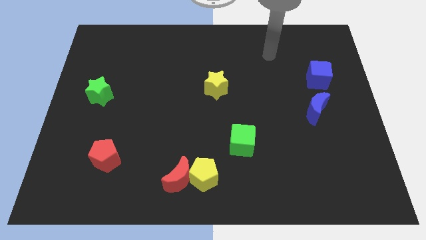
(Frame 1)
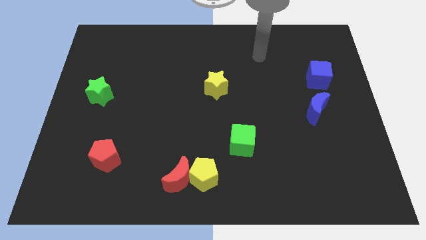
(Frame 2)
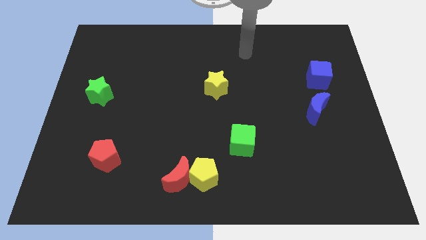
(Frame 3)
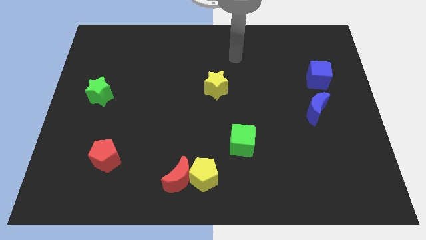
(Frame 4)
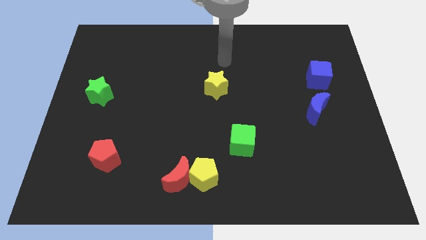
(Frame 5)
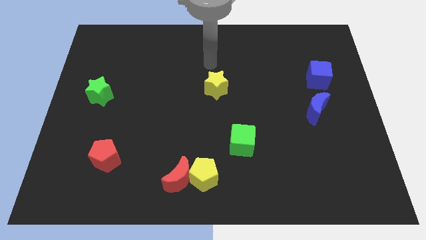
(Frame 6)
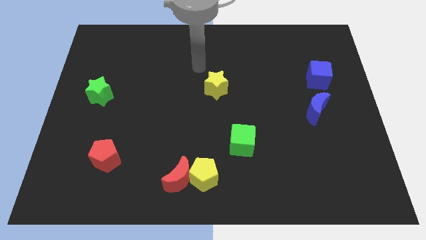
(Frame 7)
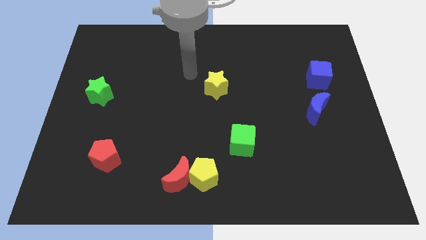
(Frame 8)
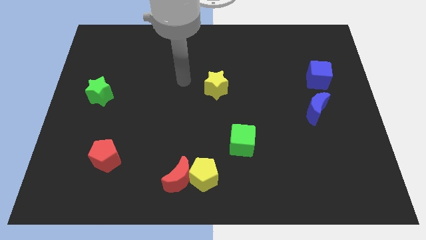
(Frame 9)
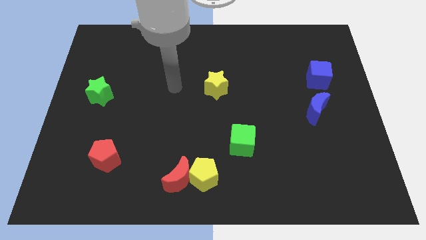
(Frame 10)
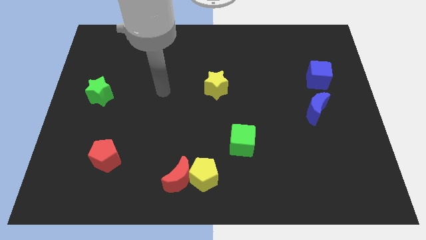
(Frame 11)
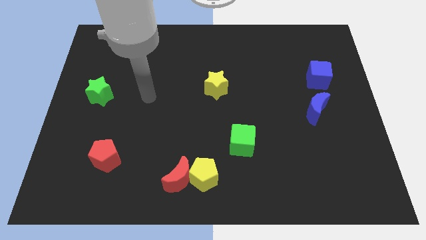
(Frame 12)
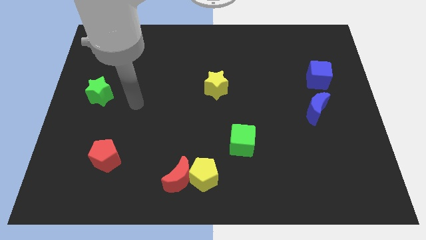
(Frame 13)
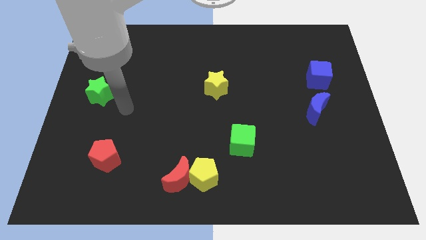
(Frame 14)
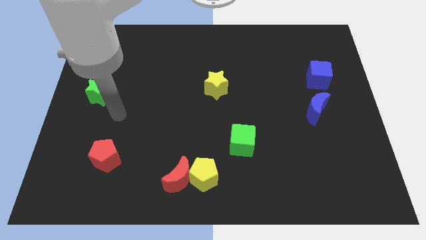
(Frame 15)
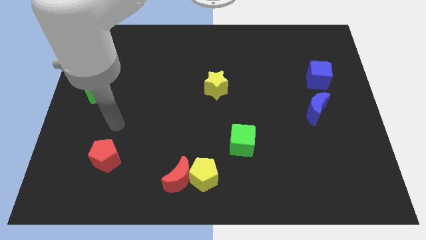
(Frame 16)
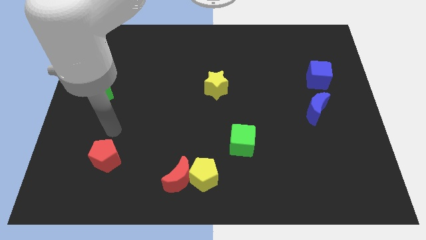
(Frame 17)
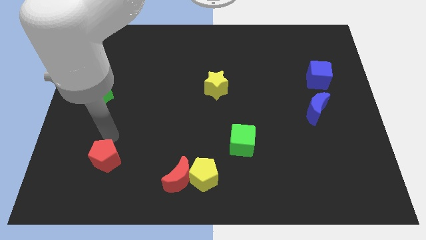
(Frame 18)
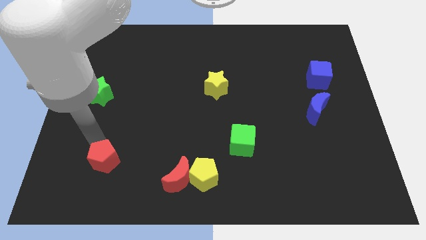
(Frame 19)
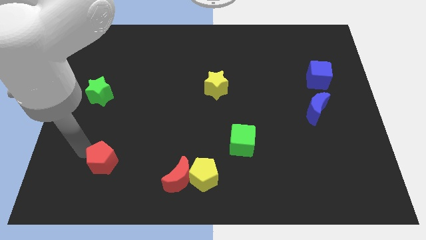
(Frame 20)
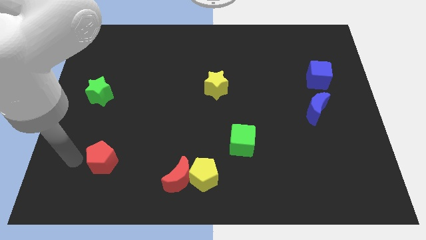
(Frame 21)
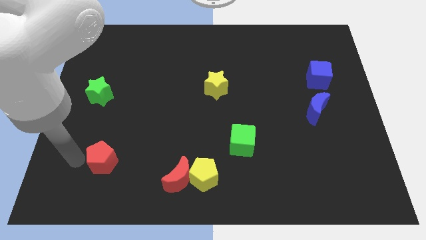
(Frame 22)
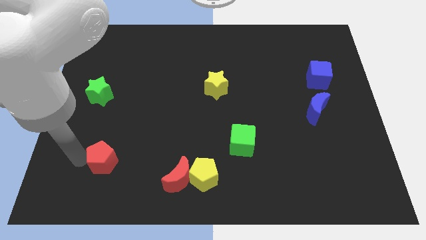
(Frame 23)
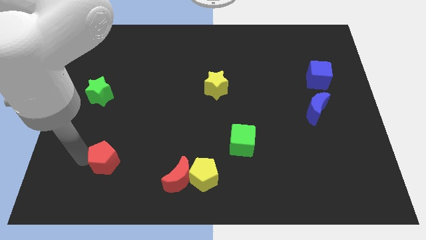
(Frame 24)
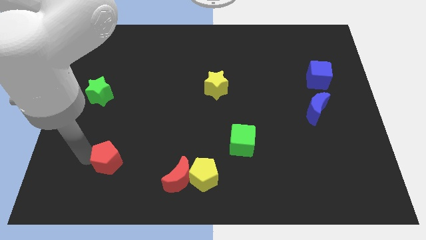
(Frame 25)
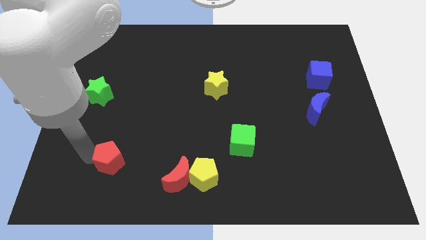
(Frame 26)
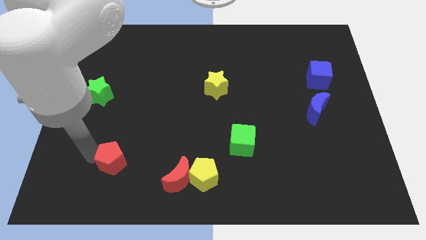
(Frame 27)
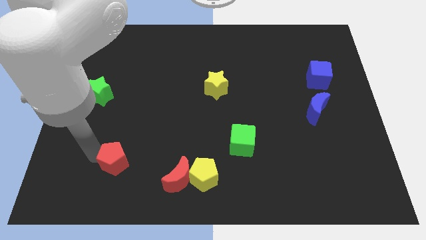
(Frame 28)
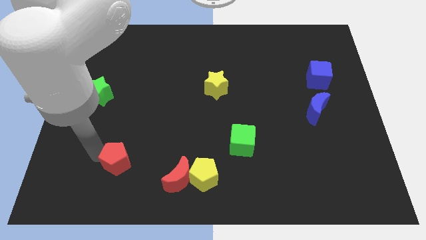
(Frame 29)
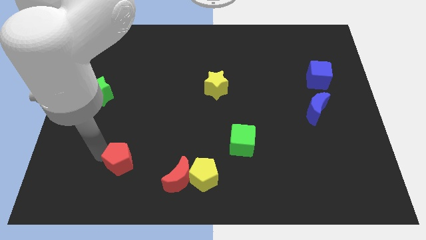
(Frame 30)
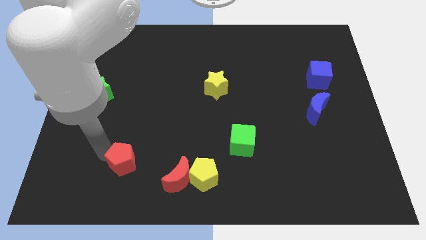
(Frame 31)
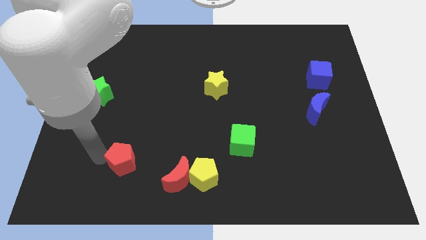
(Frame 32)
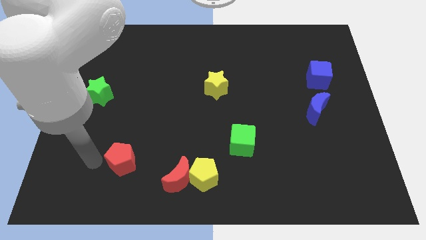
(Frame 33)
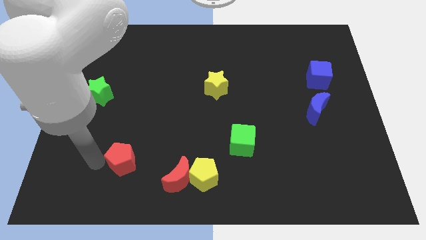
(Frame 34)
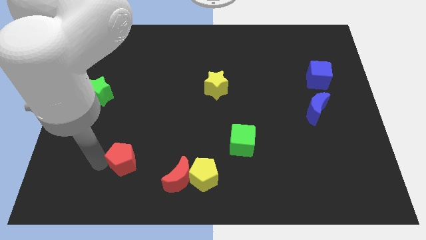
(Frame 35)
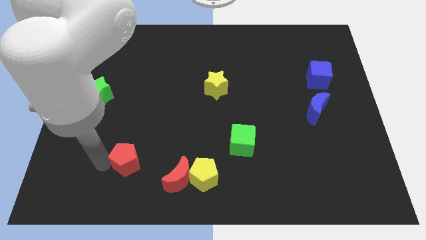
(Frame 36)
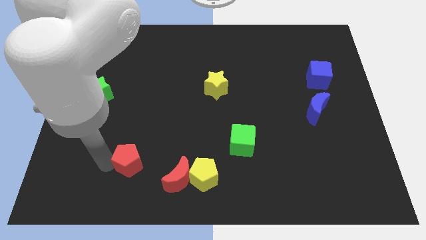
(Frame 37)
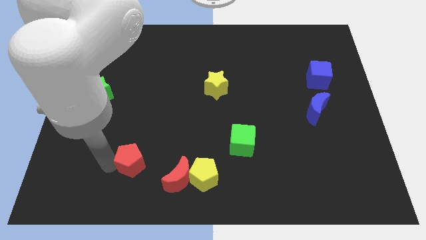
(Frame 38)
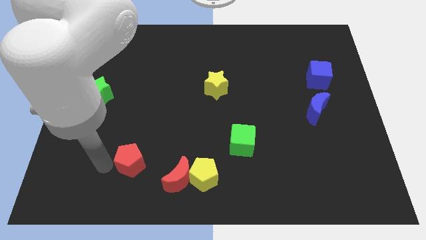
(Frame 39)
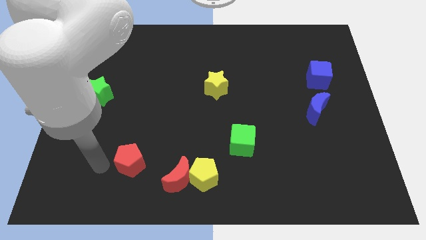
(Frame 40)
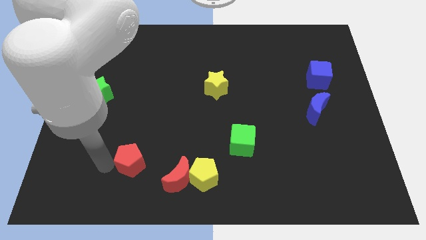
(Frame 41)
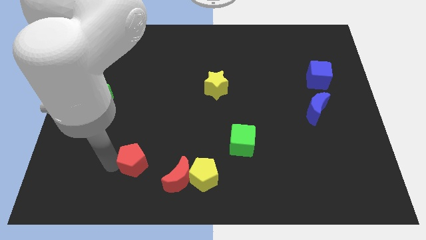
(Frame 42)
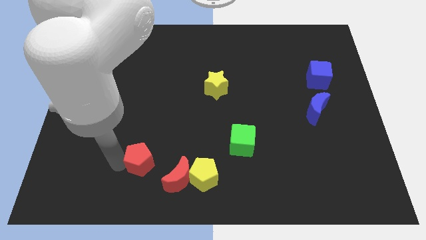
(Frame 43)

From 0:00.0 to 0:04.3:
move the red pentagon a little bit to the right

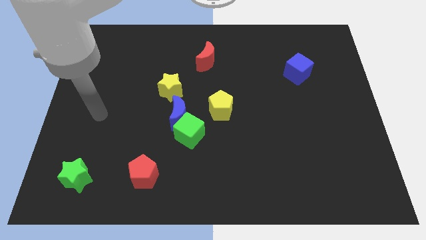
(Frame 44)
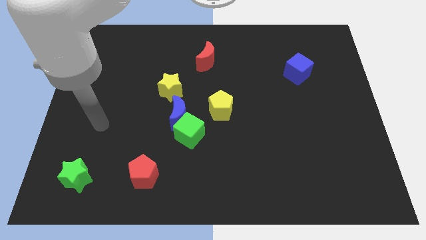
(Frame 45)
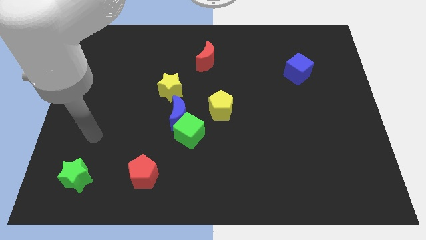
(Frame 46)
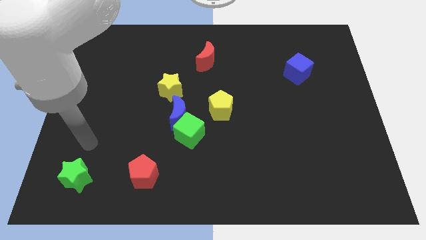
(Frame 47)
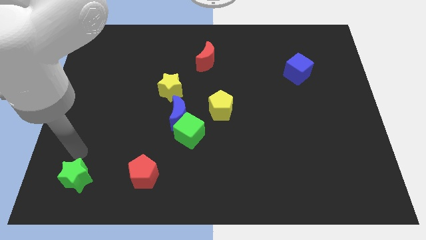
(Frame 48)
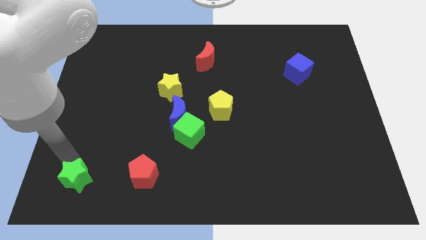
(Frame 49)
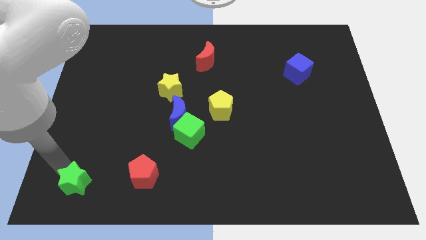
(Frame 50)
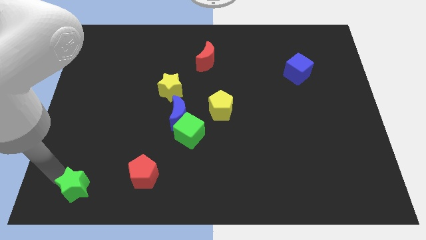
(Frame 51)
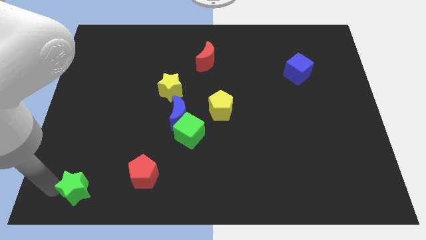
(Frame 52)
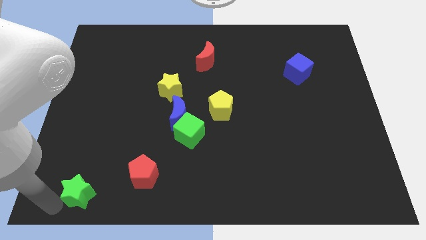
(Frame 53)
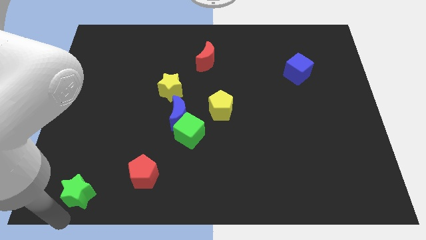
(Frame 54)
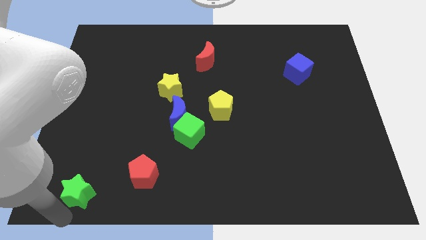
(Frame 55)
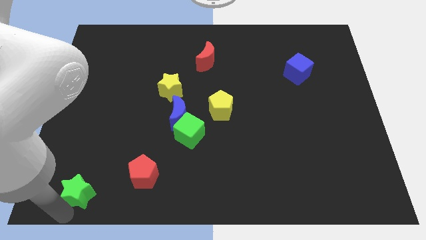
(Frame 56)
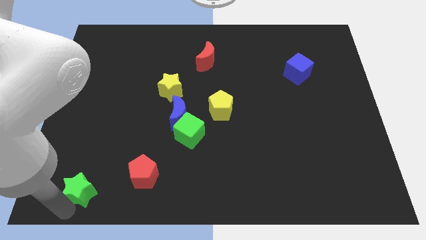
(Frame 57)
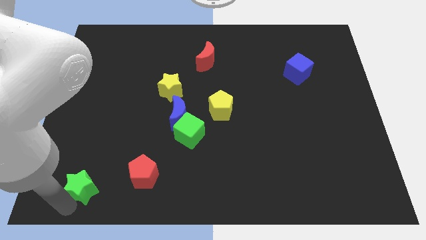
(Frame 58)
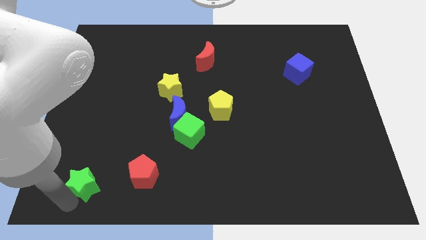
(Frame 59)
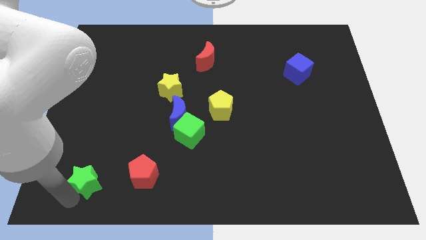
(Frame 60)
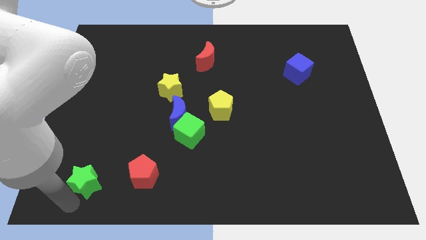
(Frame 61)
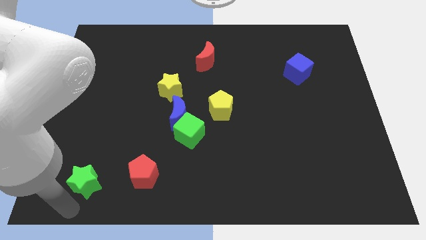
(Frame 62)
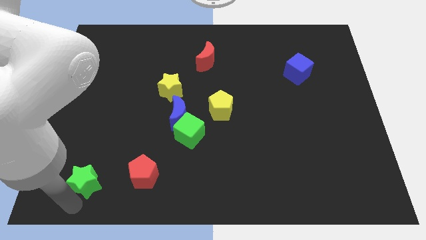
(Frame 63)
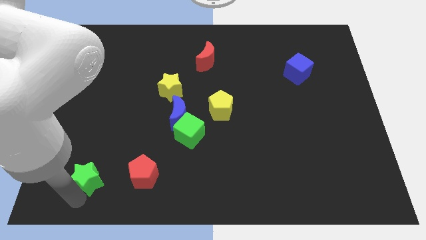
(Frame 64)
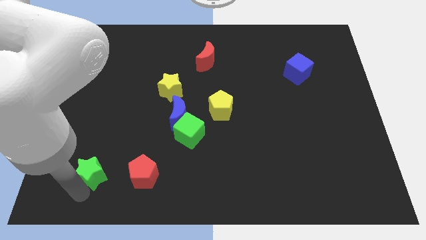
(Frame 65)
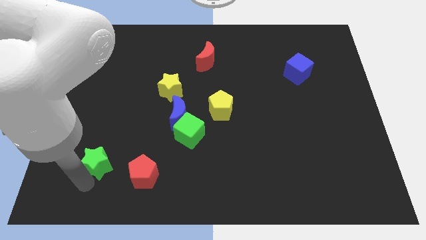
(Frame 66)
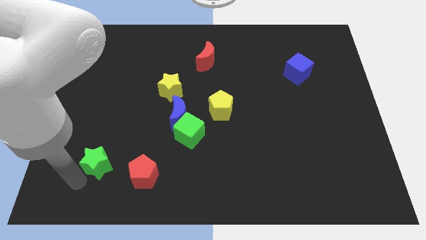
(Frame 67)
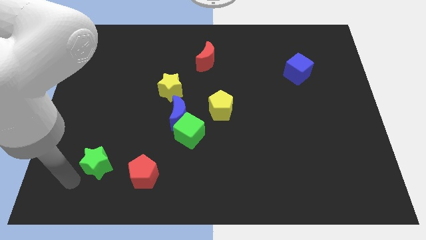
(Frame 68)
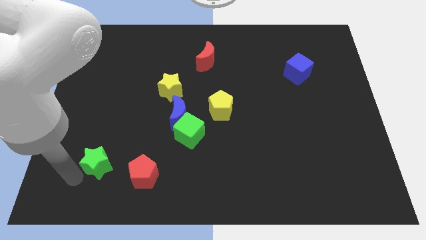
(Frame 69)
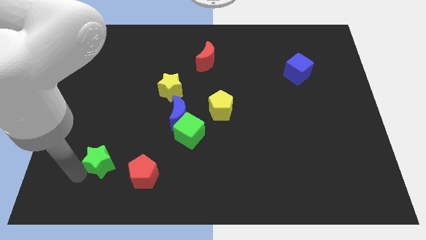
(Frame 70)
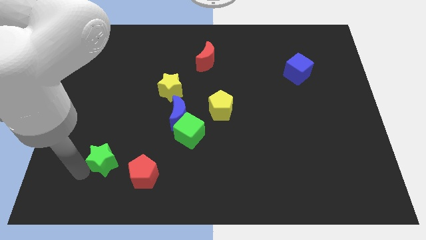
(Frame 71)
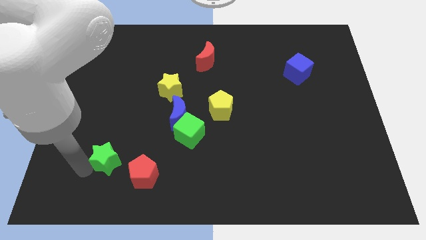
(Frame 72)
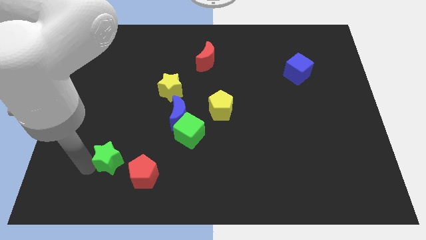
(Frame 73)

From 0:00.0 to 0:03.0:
slightly slide the green star up and then right

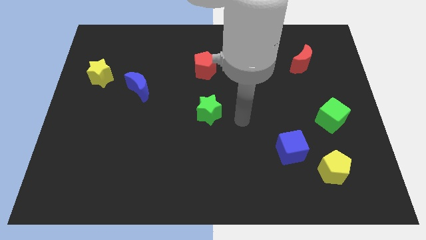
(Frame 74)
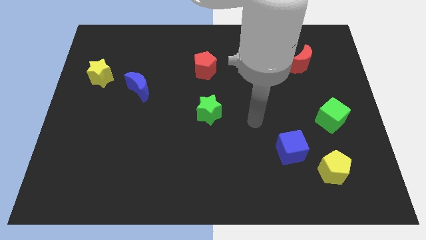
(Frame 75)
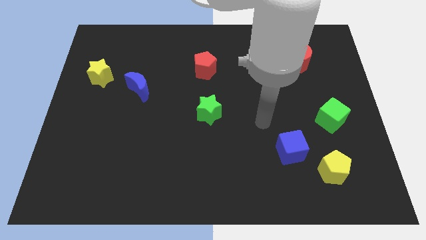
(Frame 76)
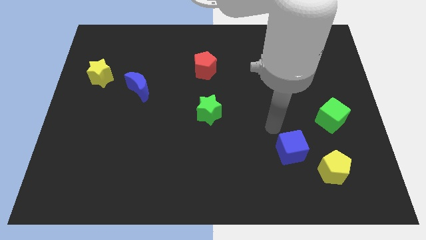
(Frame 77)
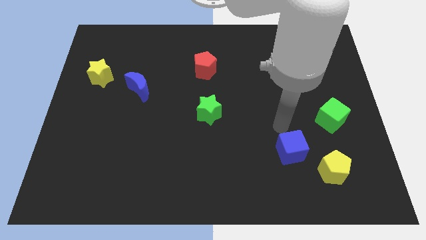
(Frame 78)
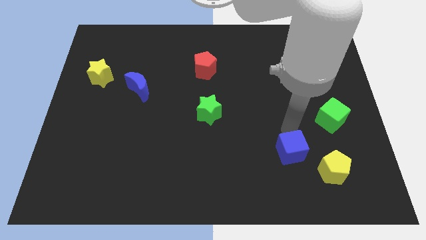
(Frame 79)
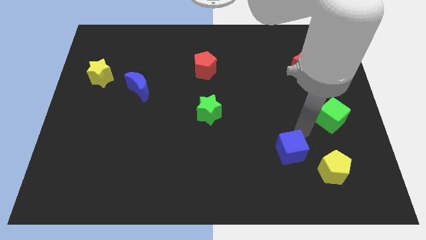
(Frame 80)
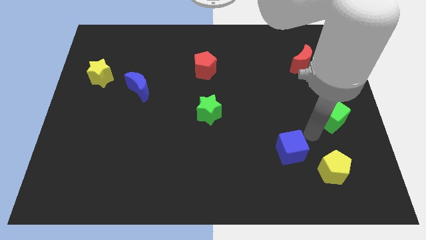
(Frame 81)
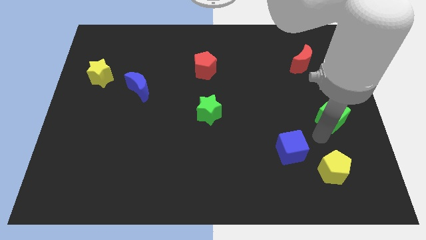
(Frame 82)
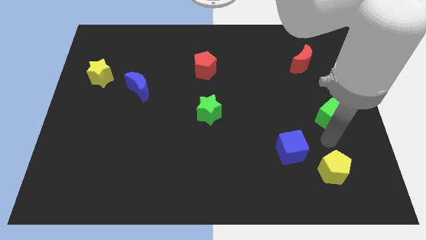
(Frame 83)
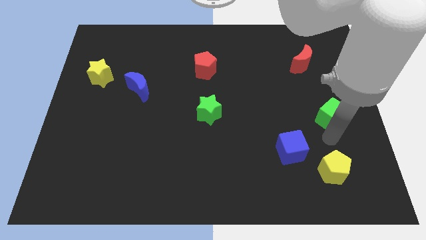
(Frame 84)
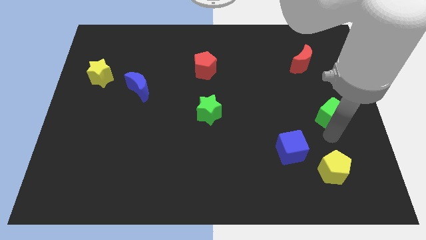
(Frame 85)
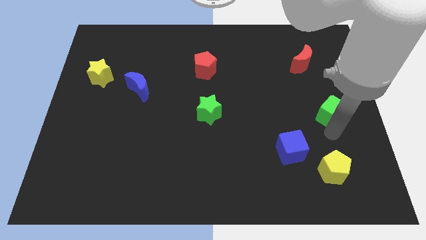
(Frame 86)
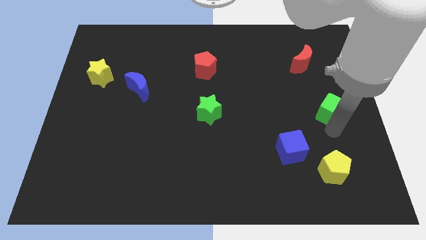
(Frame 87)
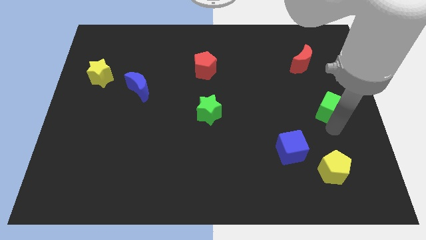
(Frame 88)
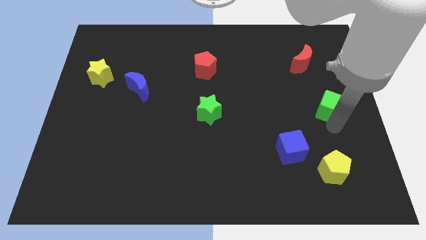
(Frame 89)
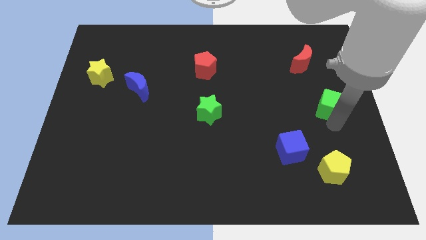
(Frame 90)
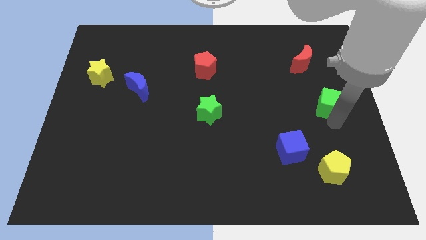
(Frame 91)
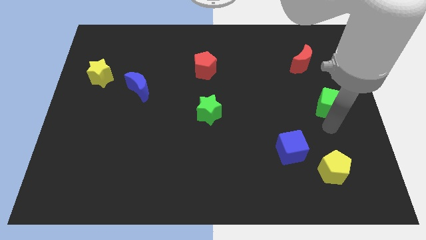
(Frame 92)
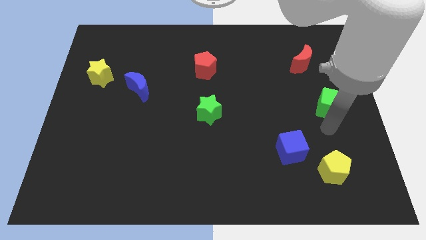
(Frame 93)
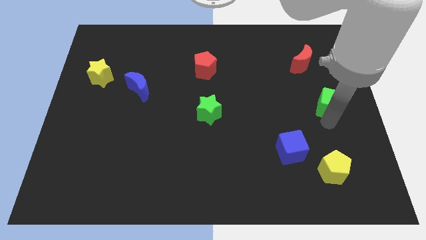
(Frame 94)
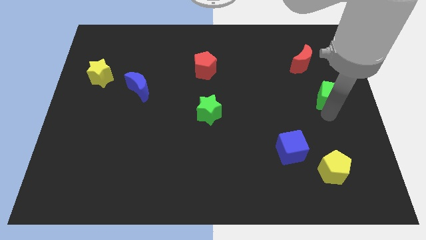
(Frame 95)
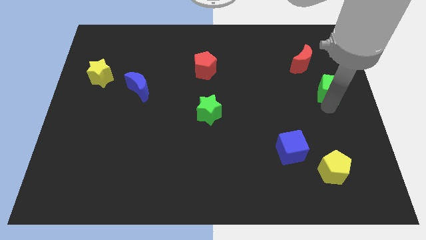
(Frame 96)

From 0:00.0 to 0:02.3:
slide the green cube upwards slightly
